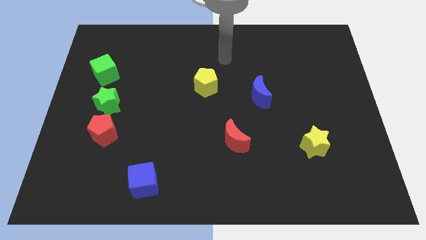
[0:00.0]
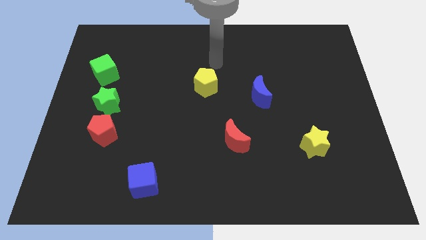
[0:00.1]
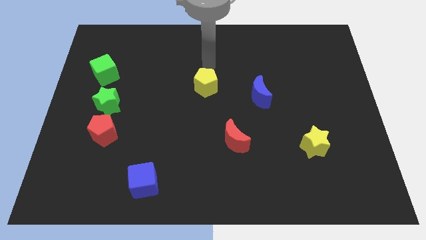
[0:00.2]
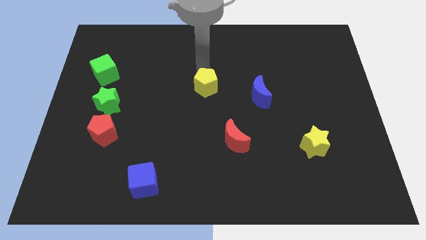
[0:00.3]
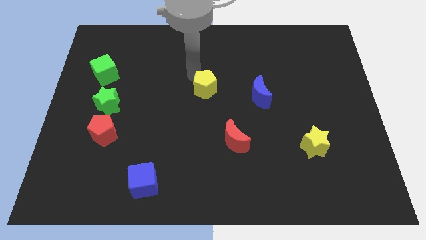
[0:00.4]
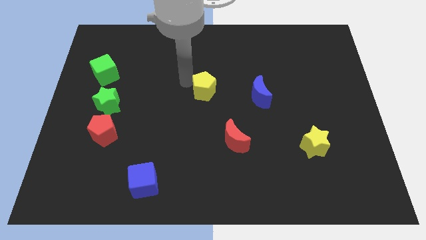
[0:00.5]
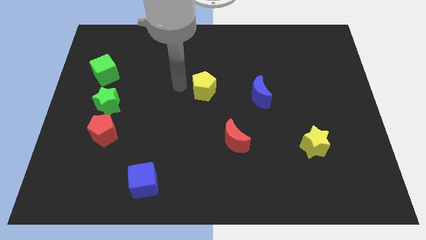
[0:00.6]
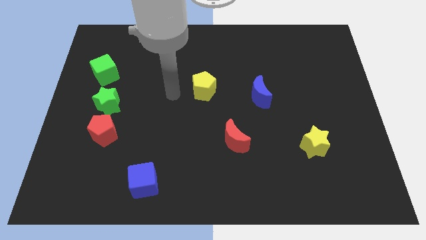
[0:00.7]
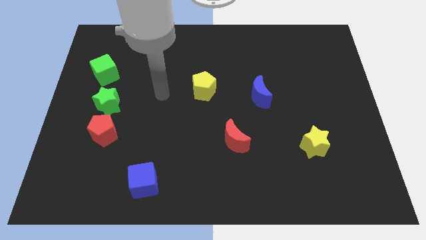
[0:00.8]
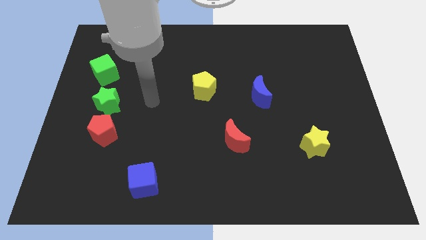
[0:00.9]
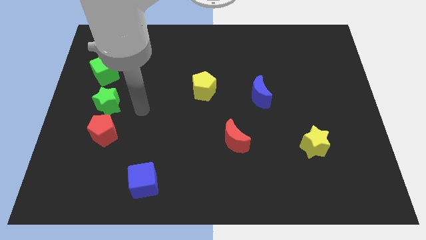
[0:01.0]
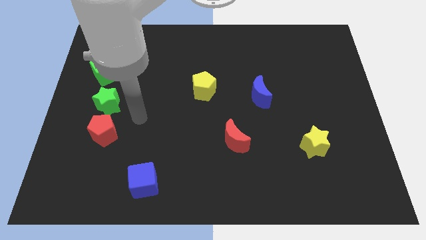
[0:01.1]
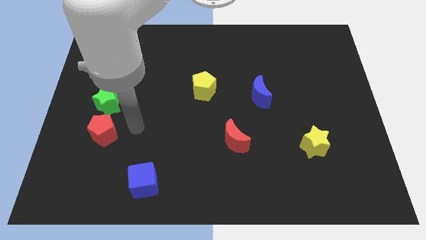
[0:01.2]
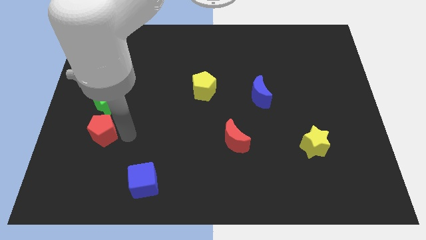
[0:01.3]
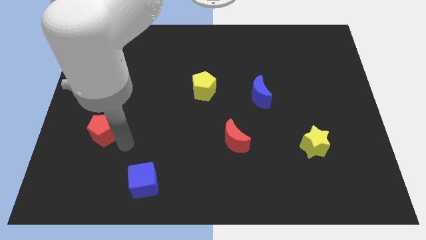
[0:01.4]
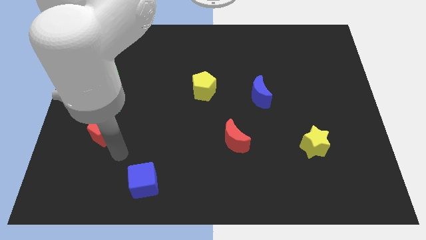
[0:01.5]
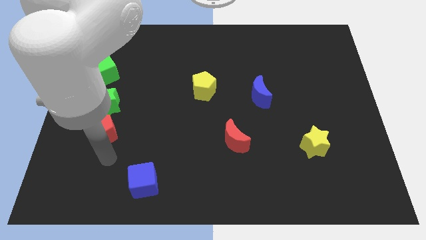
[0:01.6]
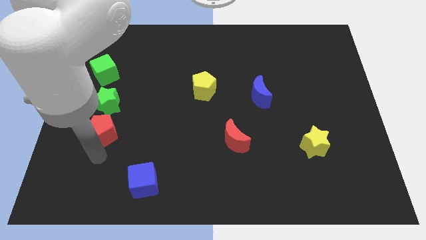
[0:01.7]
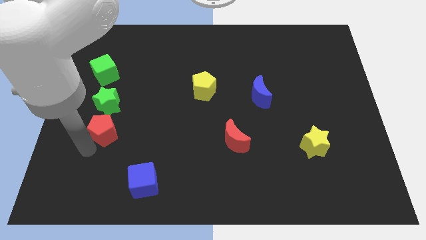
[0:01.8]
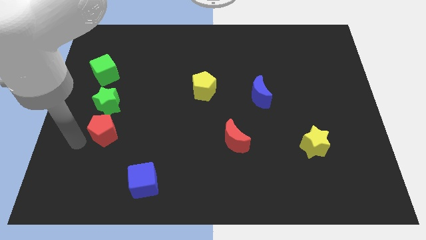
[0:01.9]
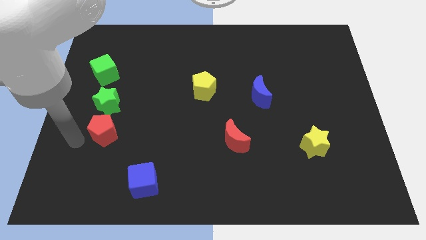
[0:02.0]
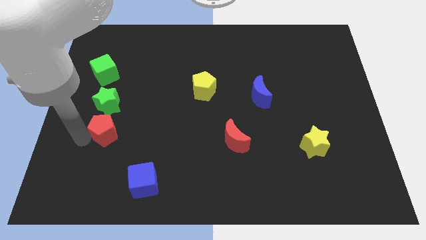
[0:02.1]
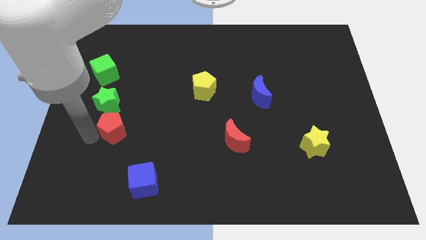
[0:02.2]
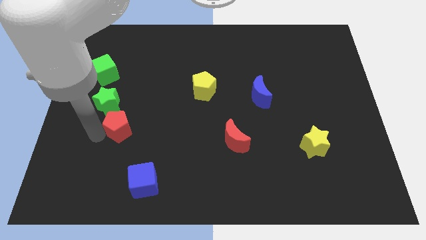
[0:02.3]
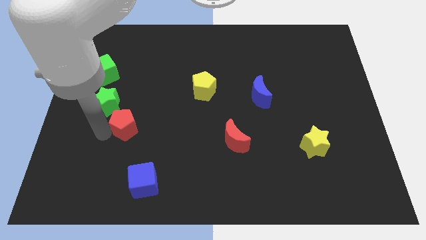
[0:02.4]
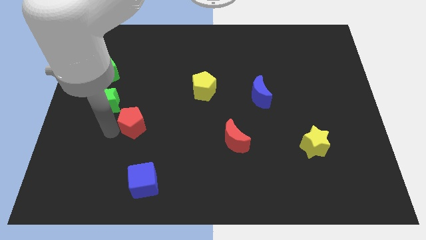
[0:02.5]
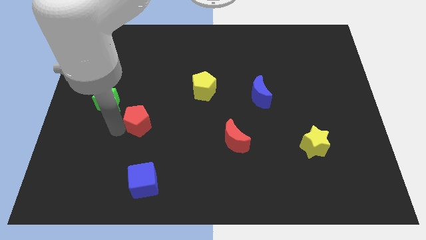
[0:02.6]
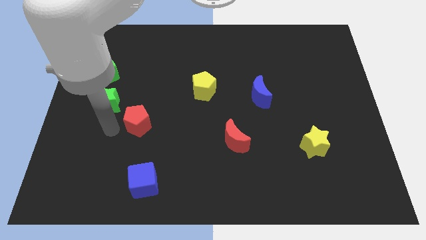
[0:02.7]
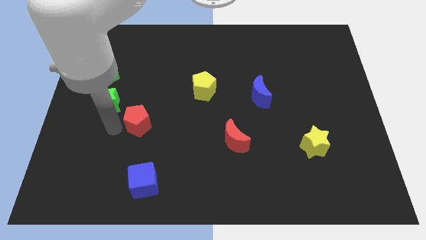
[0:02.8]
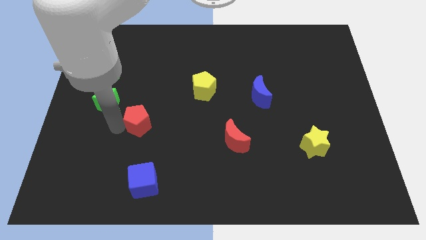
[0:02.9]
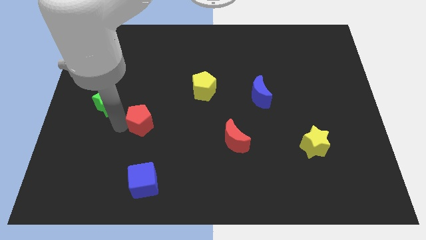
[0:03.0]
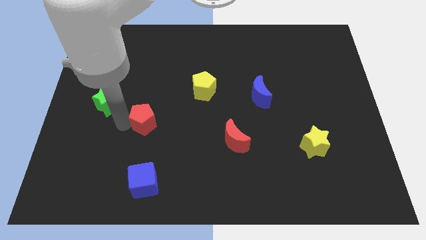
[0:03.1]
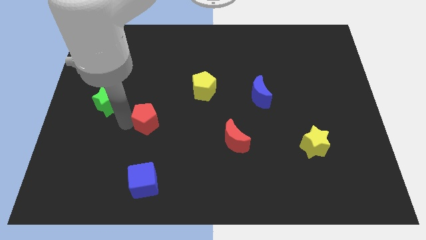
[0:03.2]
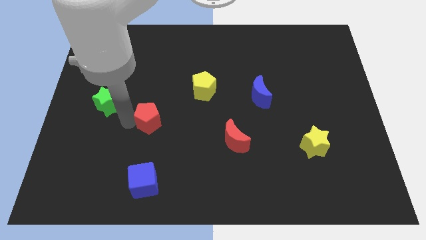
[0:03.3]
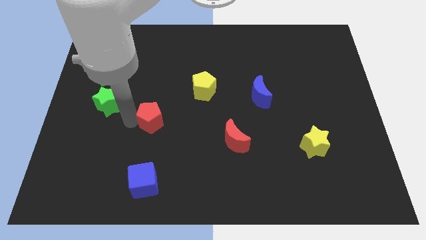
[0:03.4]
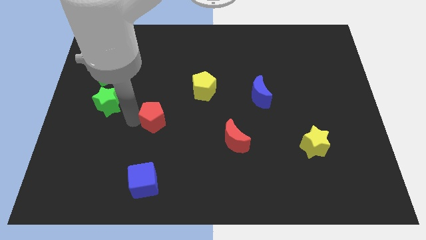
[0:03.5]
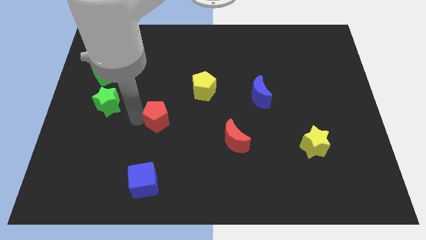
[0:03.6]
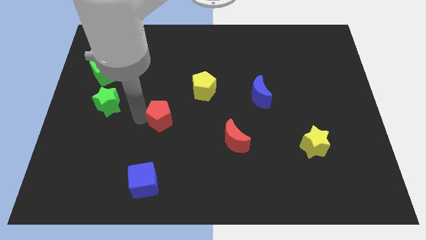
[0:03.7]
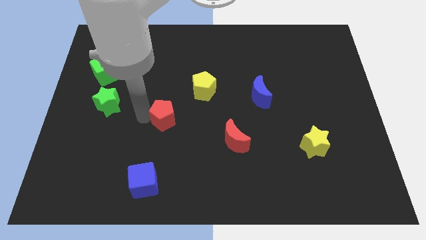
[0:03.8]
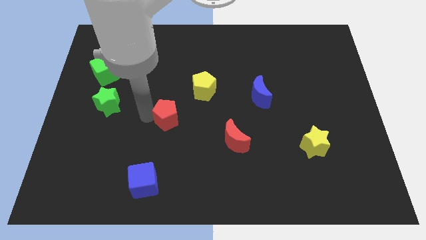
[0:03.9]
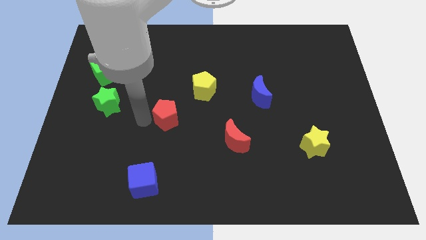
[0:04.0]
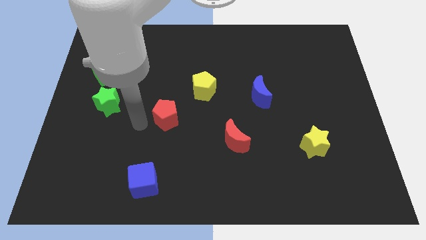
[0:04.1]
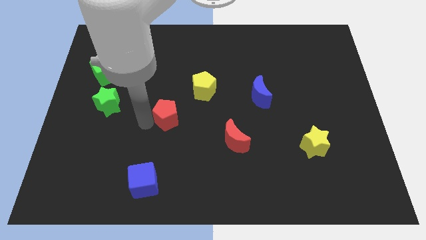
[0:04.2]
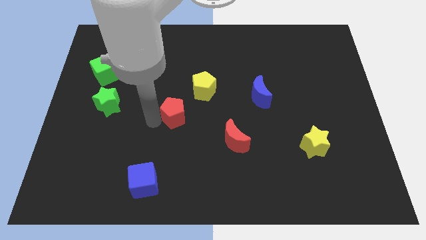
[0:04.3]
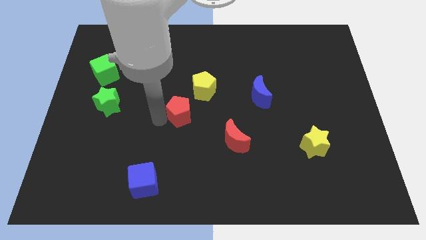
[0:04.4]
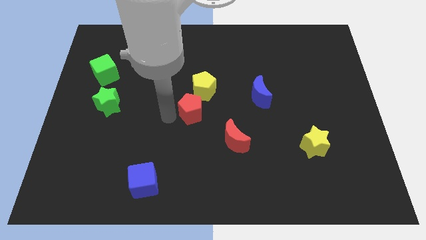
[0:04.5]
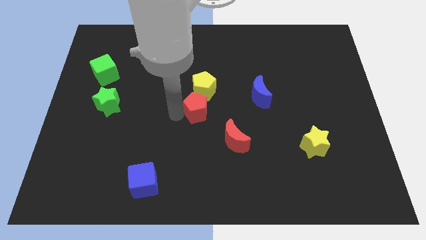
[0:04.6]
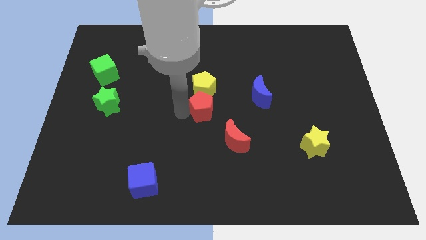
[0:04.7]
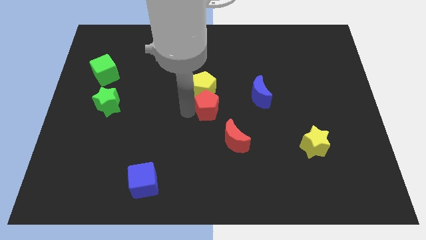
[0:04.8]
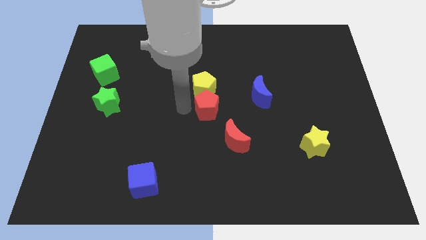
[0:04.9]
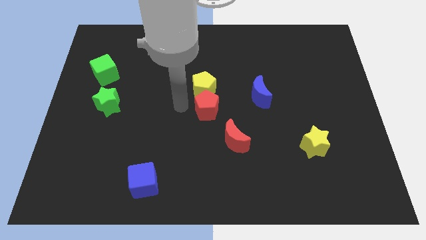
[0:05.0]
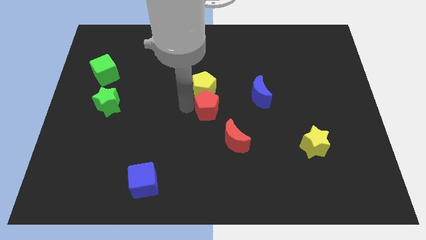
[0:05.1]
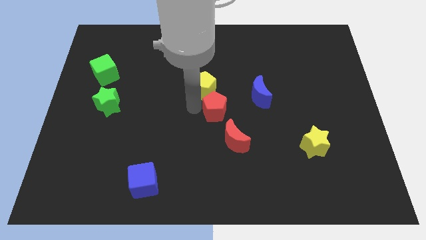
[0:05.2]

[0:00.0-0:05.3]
push the red pentagon to the bottom left of the blue moon

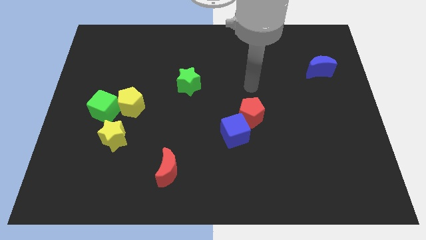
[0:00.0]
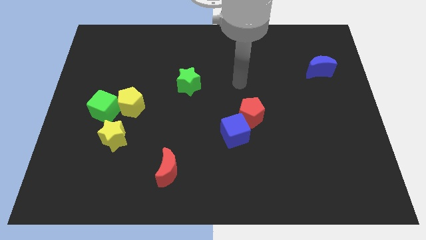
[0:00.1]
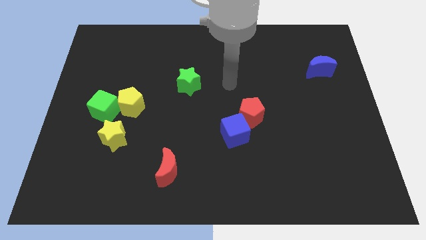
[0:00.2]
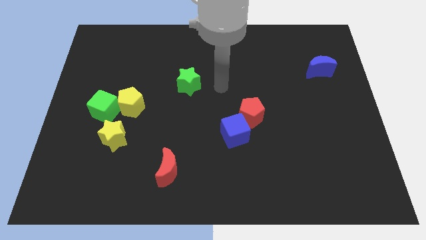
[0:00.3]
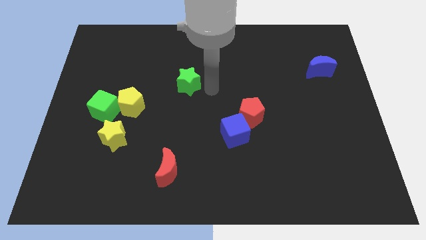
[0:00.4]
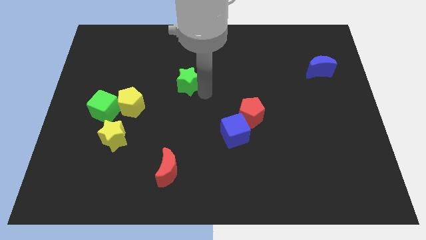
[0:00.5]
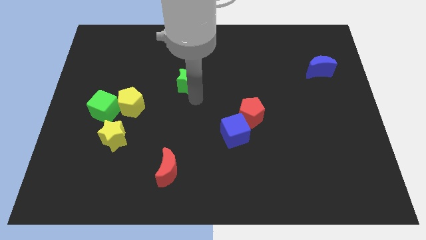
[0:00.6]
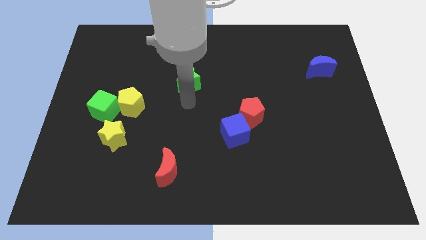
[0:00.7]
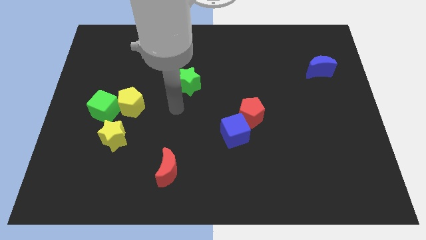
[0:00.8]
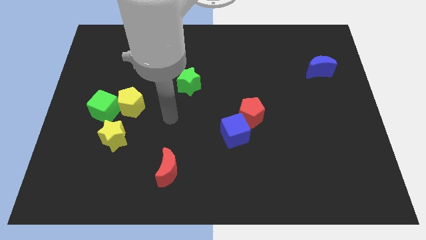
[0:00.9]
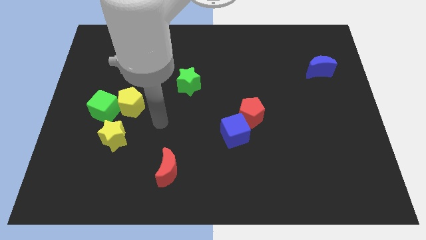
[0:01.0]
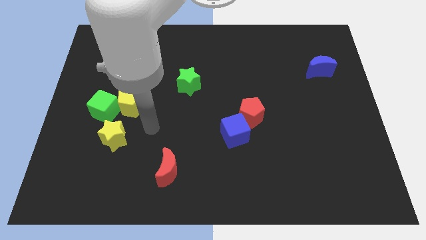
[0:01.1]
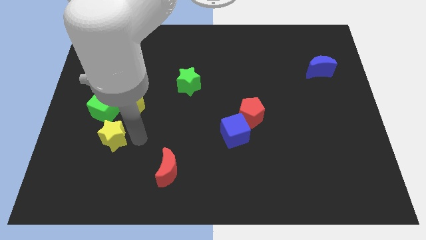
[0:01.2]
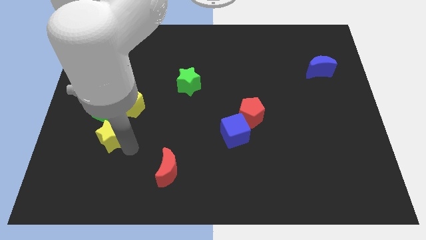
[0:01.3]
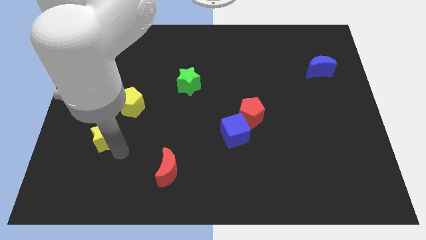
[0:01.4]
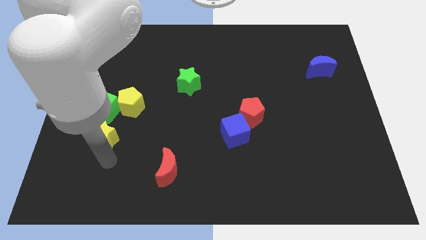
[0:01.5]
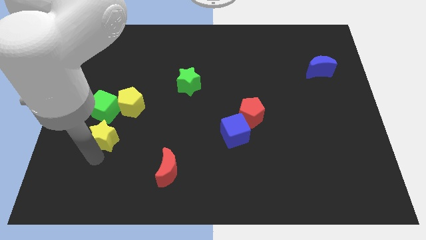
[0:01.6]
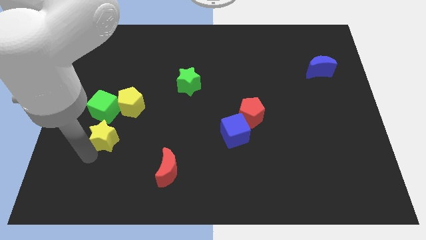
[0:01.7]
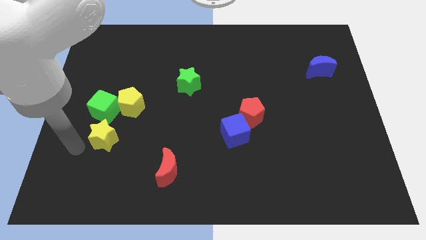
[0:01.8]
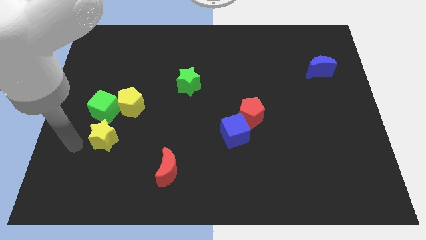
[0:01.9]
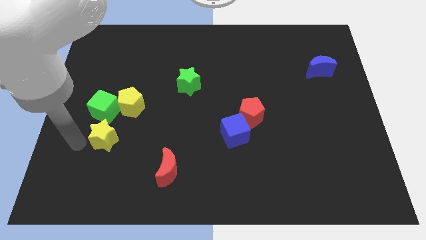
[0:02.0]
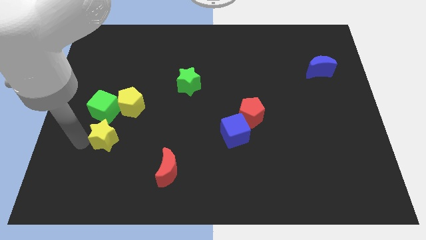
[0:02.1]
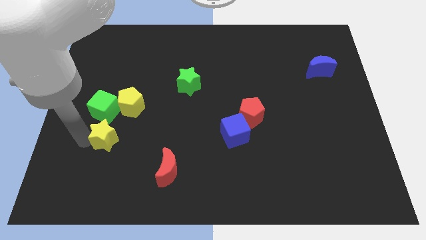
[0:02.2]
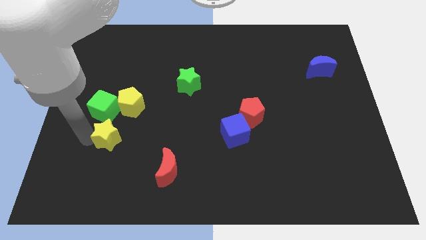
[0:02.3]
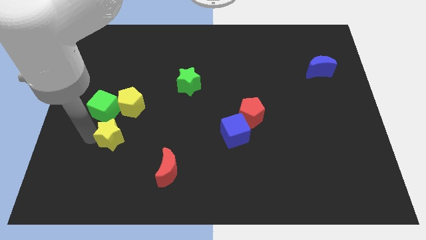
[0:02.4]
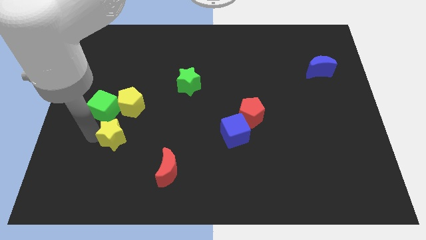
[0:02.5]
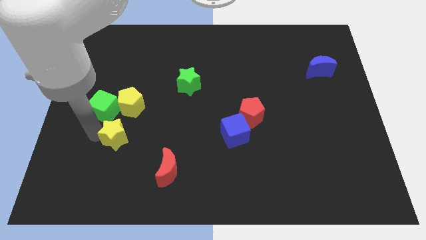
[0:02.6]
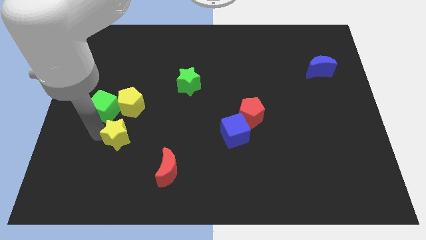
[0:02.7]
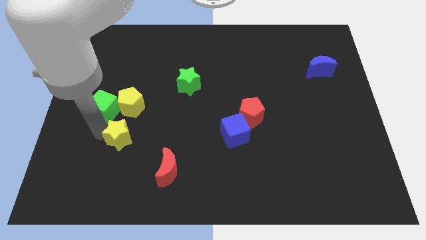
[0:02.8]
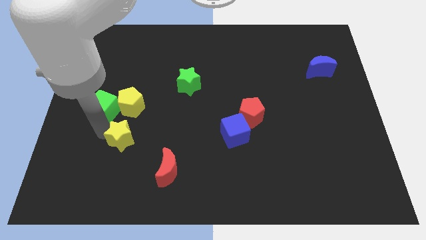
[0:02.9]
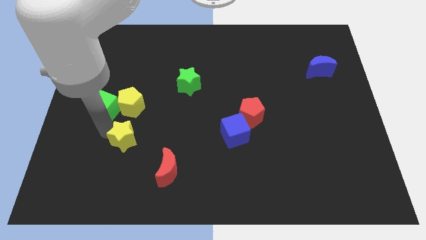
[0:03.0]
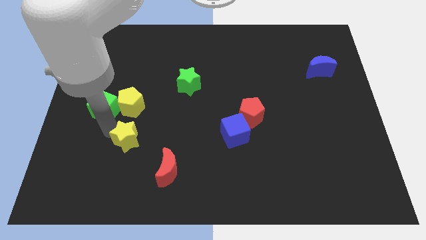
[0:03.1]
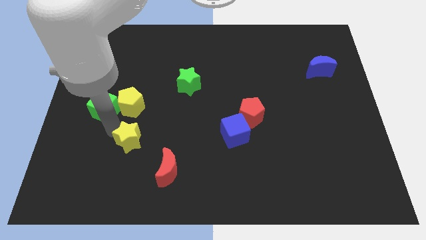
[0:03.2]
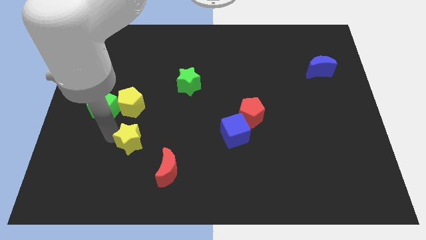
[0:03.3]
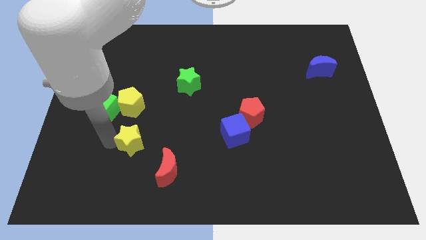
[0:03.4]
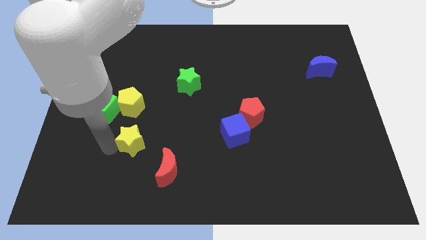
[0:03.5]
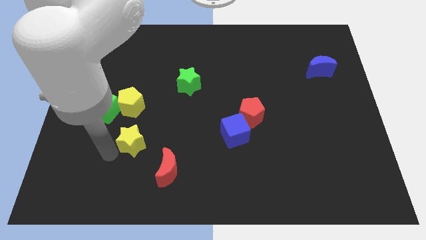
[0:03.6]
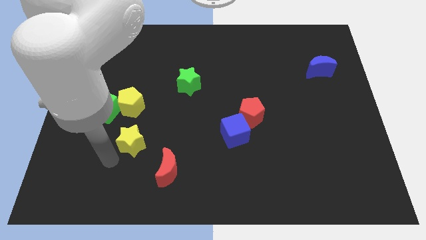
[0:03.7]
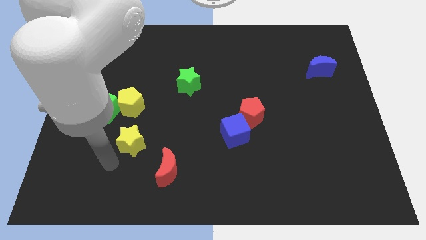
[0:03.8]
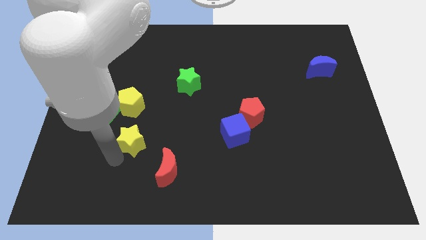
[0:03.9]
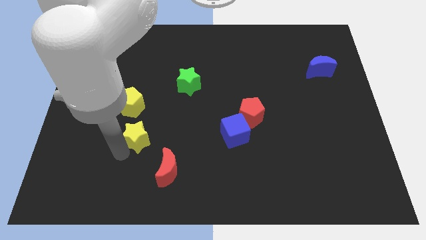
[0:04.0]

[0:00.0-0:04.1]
move the yellow star to the bottom right of the yellow pentagon
